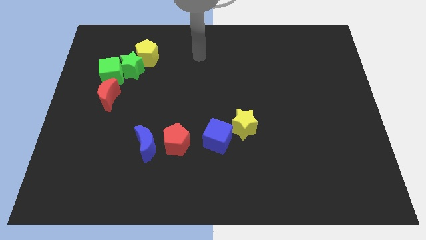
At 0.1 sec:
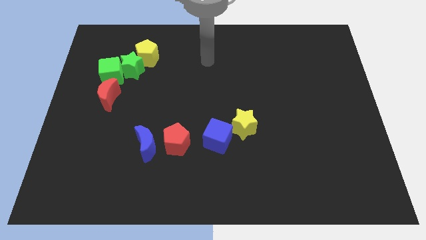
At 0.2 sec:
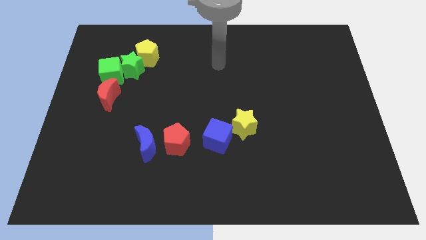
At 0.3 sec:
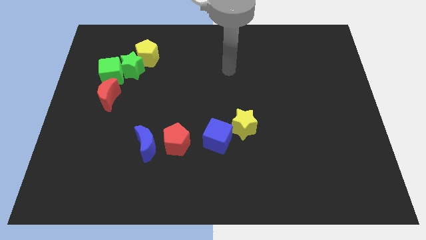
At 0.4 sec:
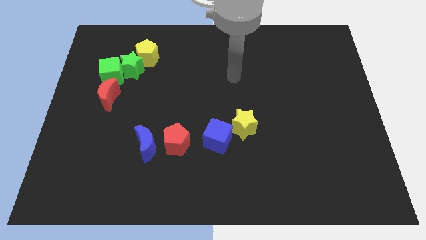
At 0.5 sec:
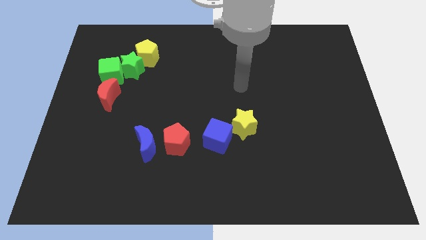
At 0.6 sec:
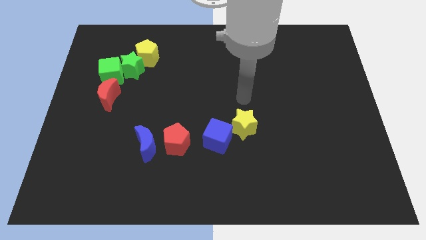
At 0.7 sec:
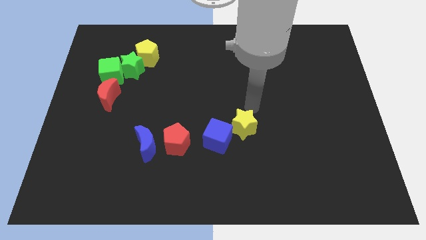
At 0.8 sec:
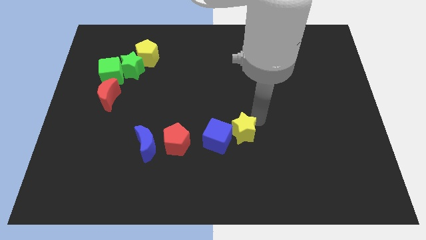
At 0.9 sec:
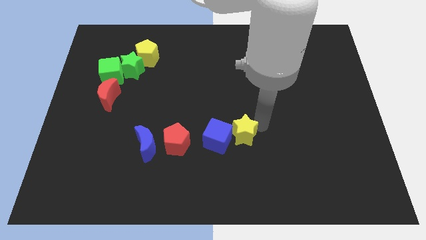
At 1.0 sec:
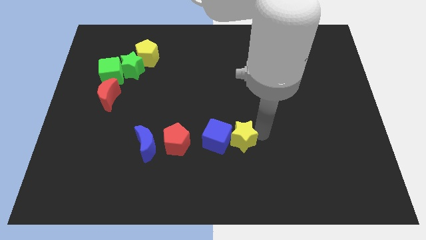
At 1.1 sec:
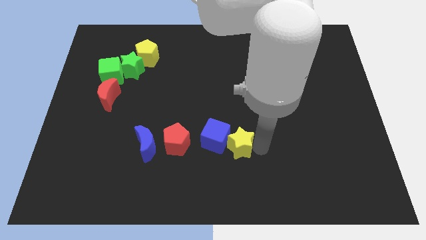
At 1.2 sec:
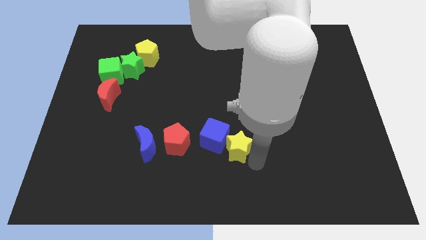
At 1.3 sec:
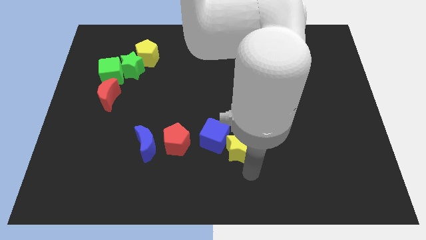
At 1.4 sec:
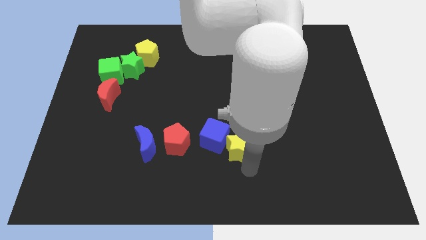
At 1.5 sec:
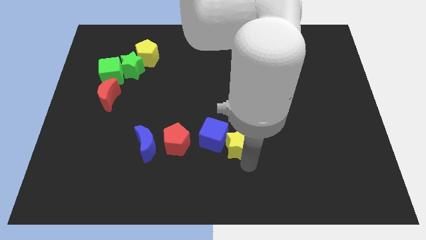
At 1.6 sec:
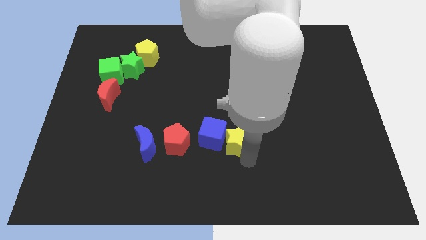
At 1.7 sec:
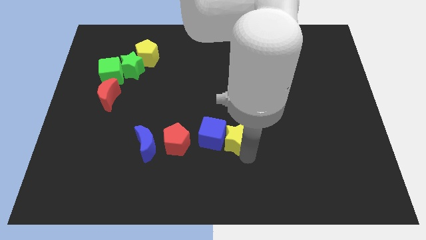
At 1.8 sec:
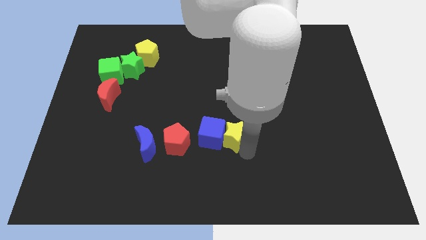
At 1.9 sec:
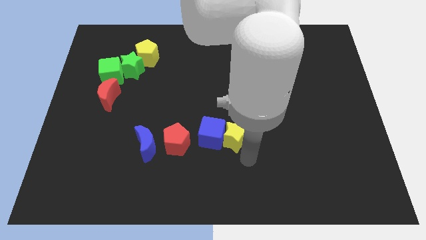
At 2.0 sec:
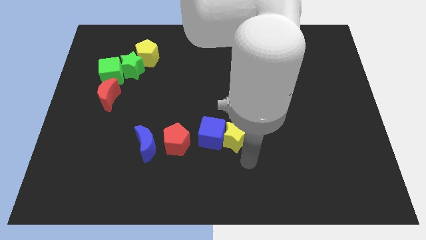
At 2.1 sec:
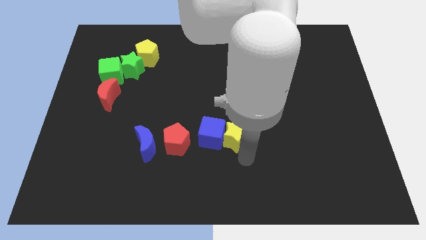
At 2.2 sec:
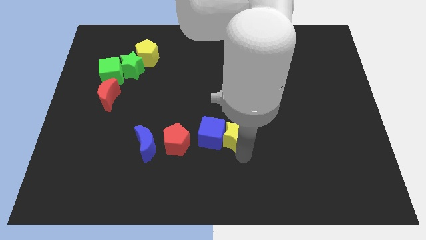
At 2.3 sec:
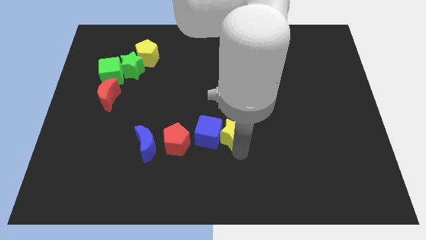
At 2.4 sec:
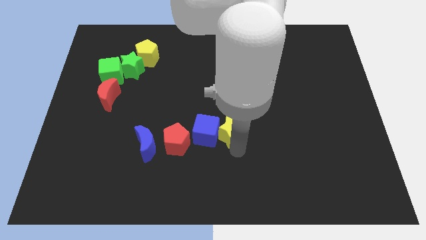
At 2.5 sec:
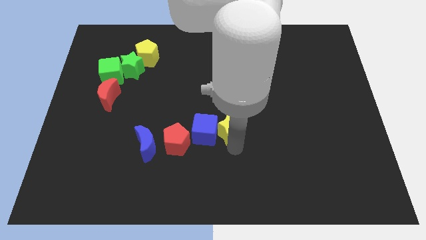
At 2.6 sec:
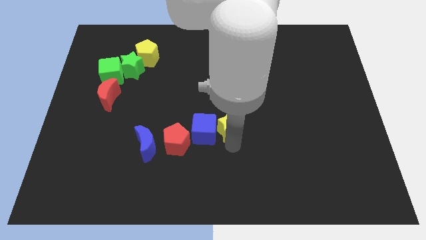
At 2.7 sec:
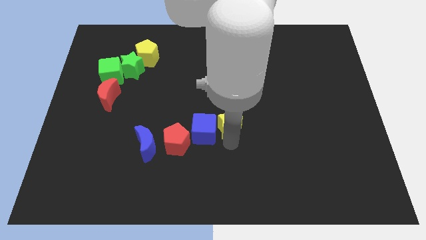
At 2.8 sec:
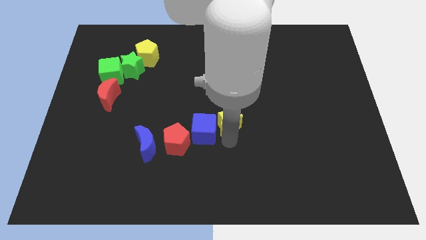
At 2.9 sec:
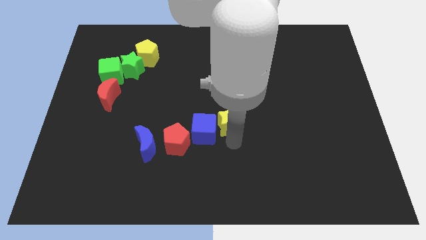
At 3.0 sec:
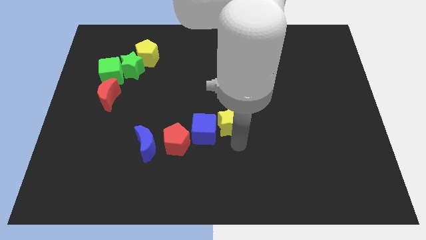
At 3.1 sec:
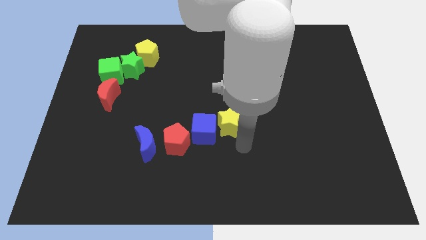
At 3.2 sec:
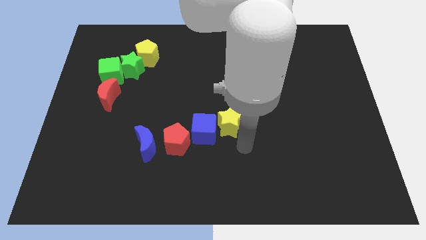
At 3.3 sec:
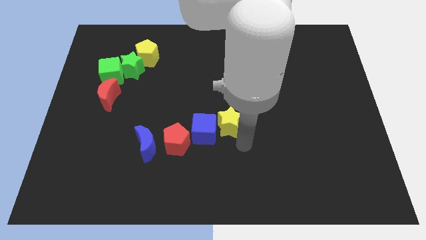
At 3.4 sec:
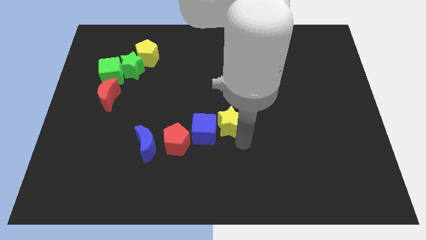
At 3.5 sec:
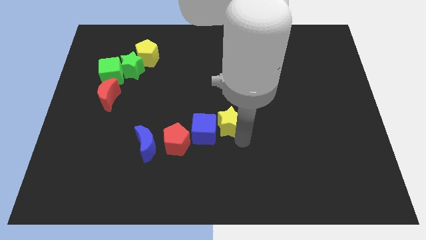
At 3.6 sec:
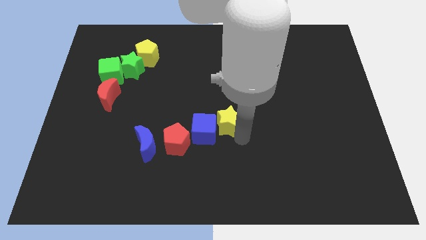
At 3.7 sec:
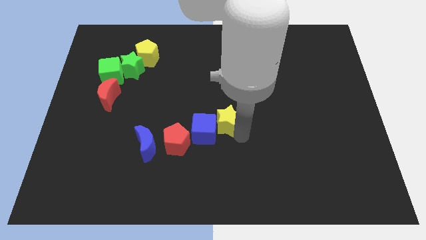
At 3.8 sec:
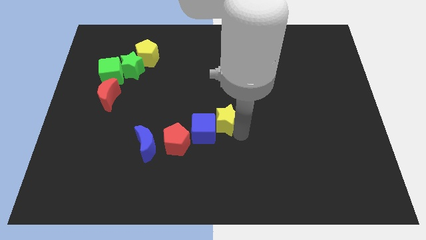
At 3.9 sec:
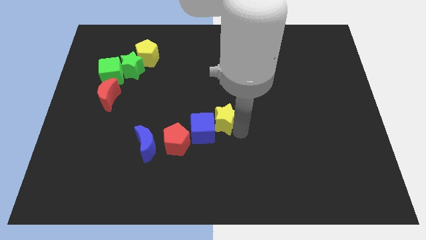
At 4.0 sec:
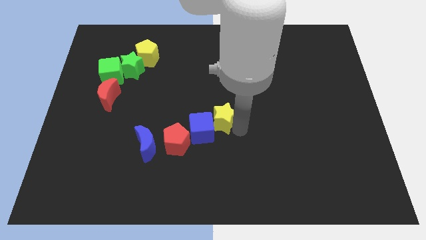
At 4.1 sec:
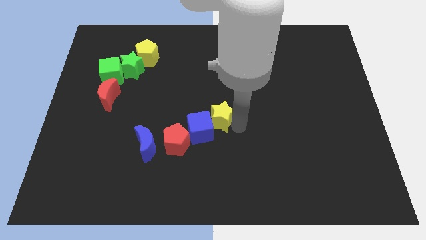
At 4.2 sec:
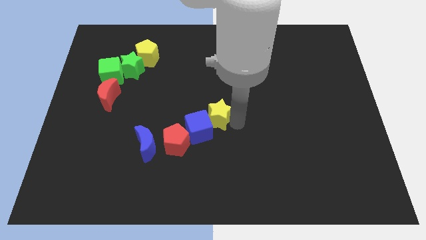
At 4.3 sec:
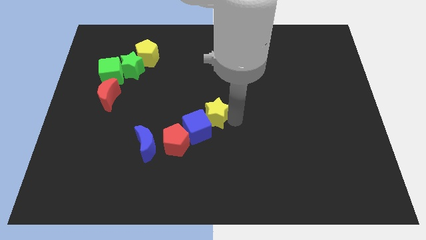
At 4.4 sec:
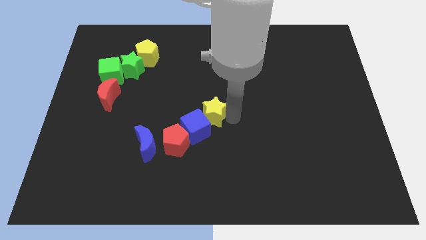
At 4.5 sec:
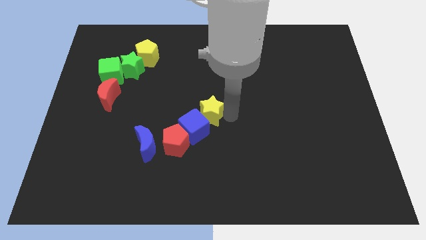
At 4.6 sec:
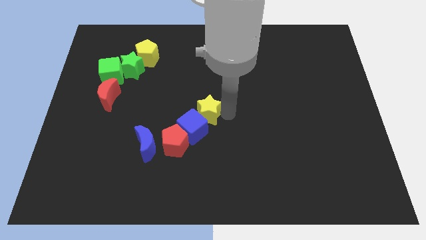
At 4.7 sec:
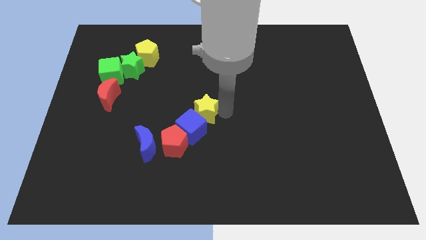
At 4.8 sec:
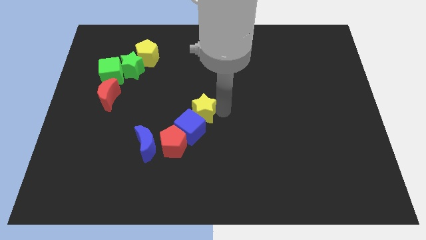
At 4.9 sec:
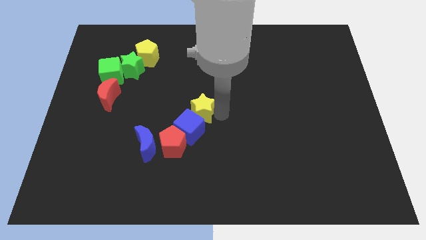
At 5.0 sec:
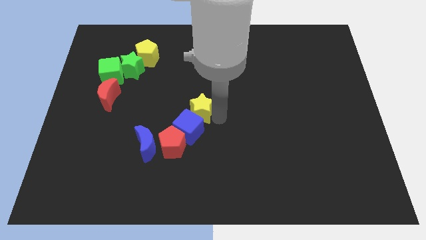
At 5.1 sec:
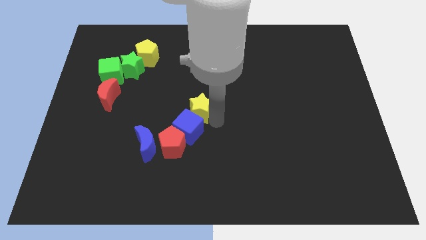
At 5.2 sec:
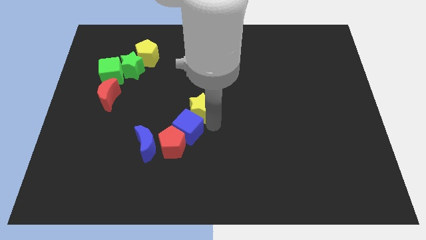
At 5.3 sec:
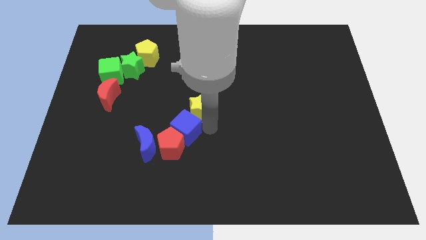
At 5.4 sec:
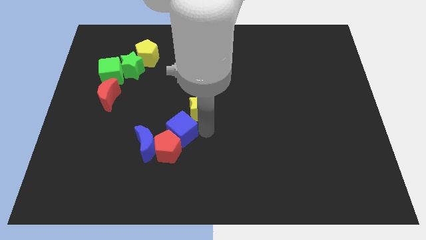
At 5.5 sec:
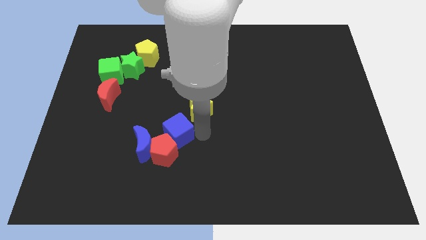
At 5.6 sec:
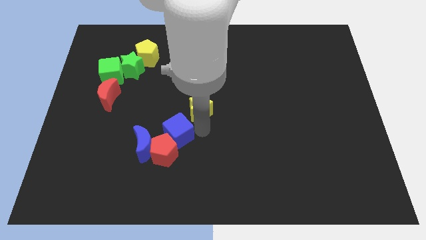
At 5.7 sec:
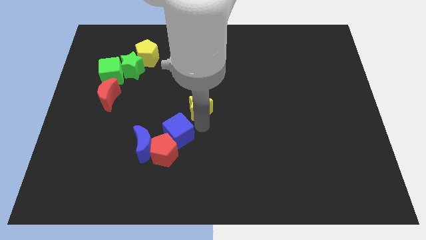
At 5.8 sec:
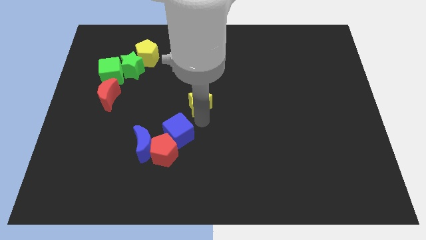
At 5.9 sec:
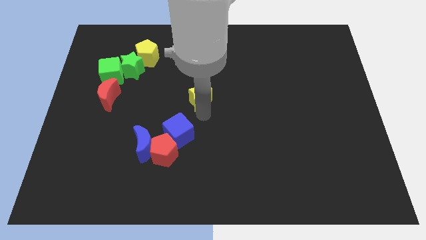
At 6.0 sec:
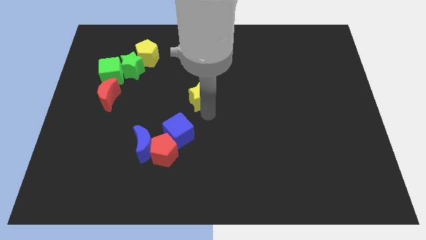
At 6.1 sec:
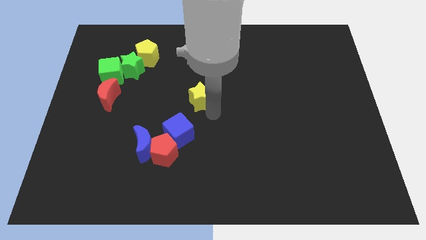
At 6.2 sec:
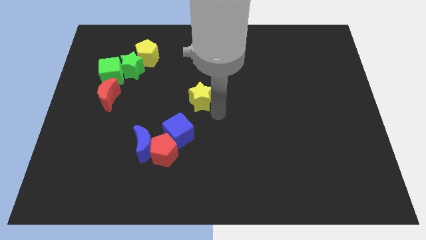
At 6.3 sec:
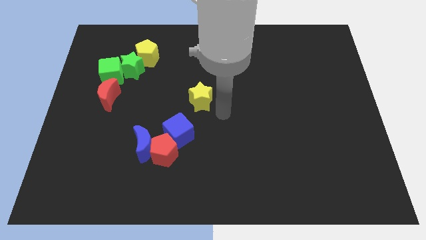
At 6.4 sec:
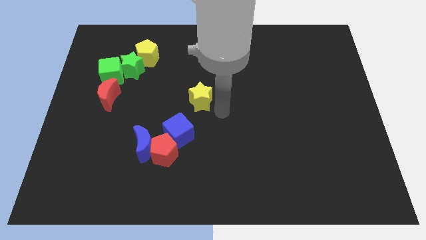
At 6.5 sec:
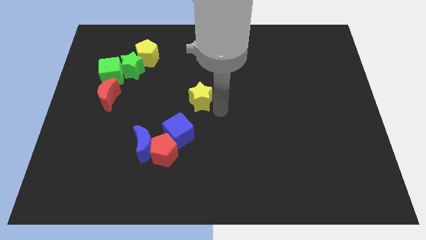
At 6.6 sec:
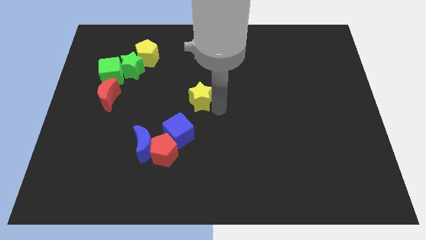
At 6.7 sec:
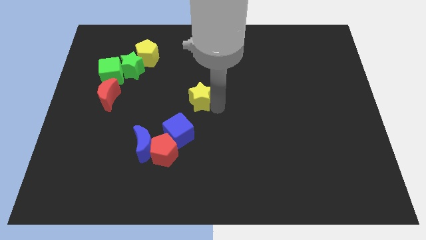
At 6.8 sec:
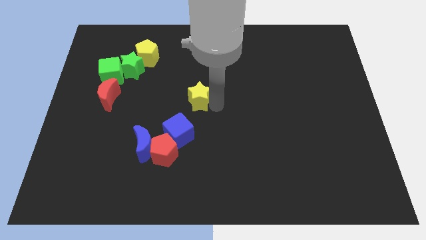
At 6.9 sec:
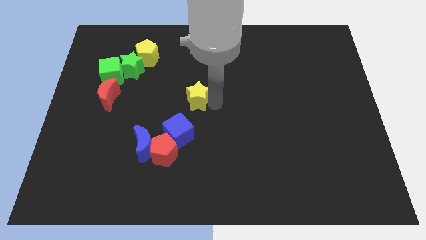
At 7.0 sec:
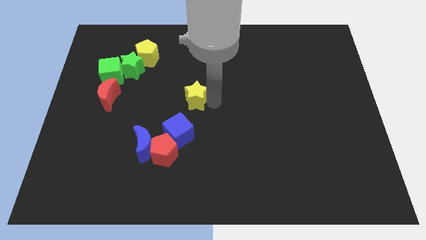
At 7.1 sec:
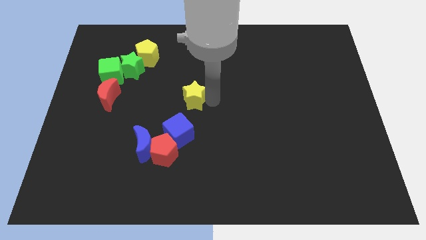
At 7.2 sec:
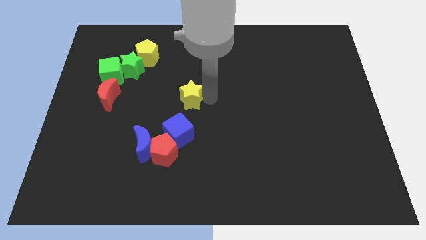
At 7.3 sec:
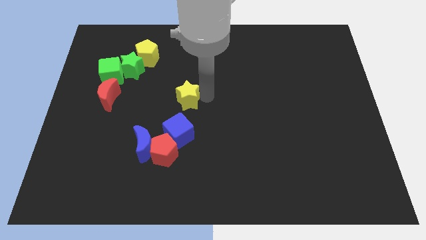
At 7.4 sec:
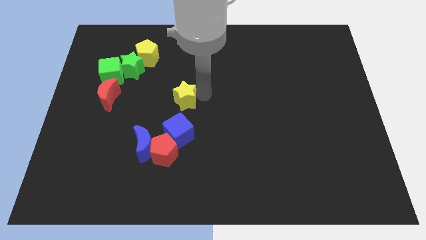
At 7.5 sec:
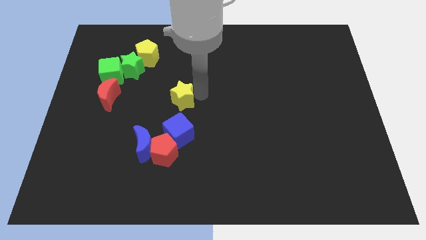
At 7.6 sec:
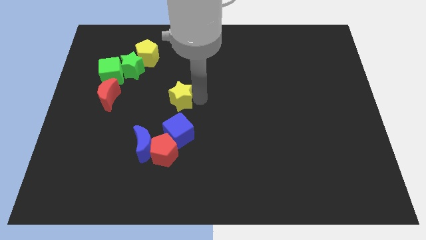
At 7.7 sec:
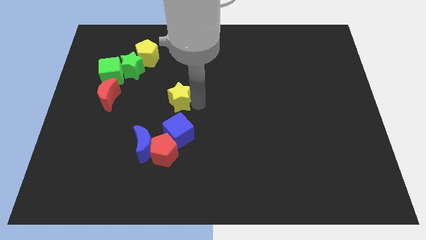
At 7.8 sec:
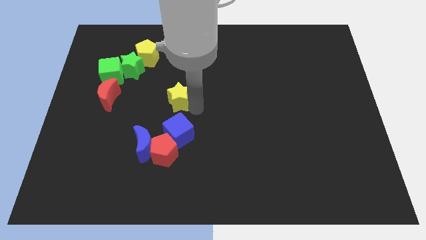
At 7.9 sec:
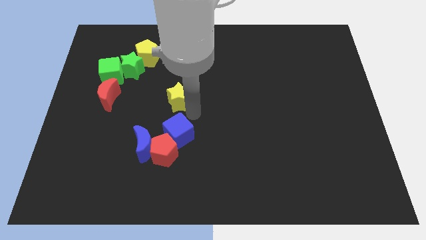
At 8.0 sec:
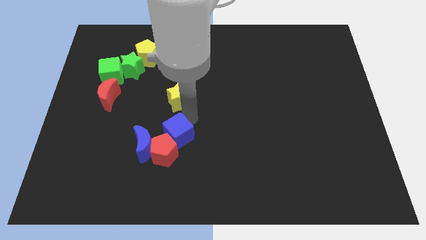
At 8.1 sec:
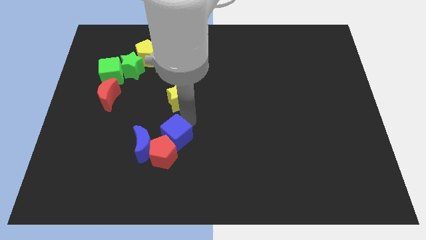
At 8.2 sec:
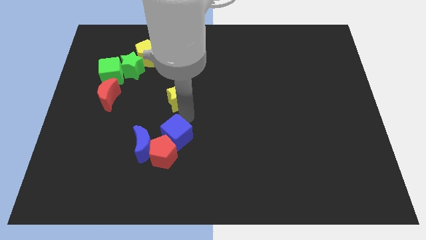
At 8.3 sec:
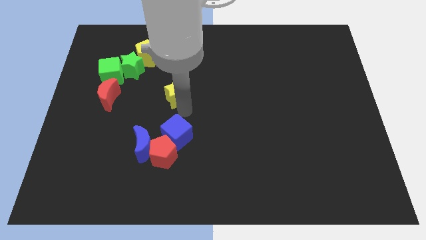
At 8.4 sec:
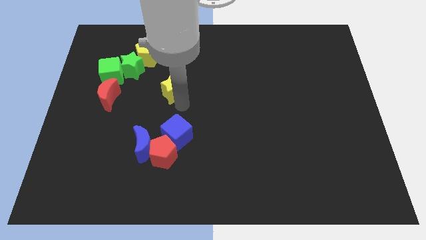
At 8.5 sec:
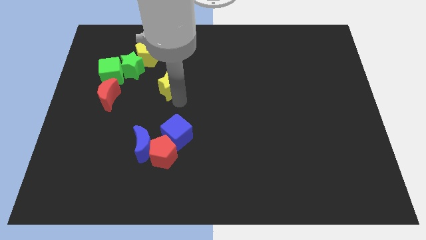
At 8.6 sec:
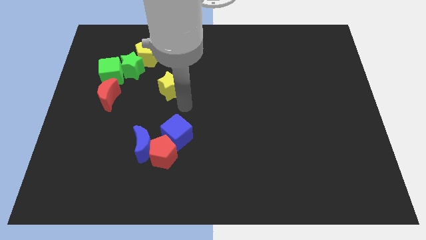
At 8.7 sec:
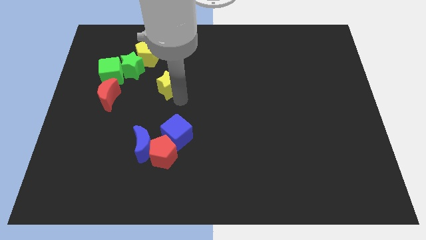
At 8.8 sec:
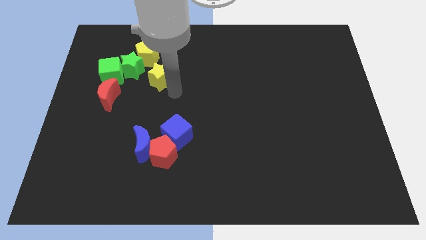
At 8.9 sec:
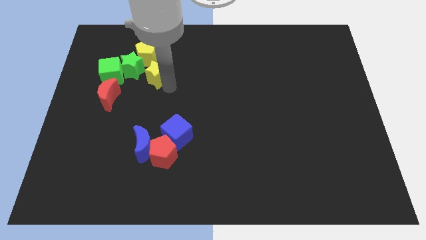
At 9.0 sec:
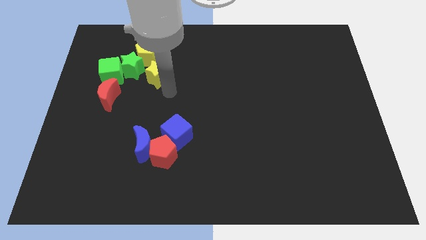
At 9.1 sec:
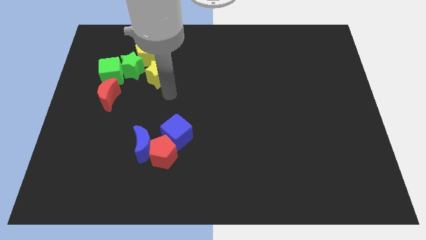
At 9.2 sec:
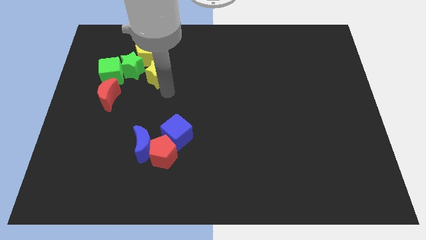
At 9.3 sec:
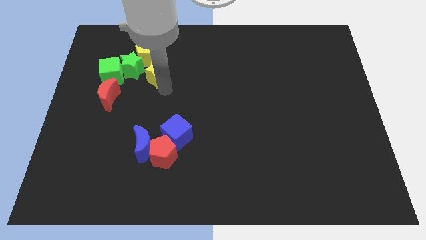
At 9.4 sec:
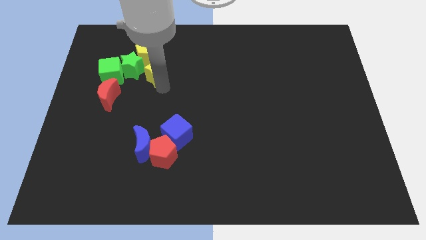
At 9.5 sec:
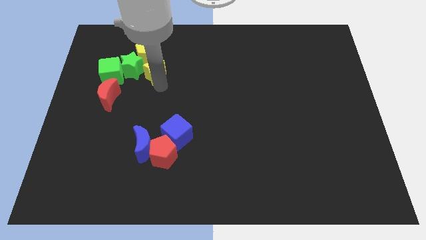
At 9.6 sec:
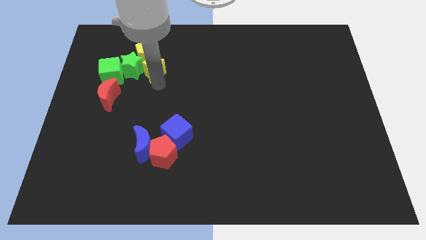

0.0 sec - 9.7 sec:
slide the yellow star close to the yellow pentagon
